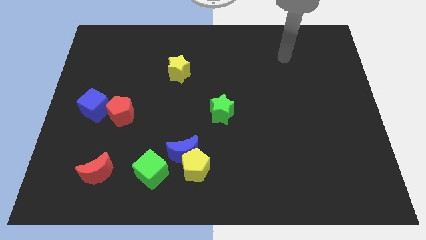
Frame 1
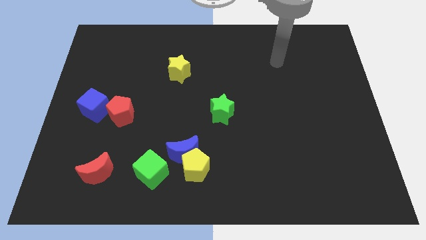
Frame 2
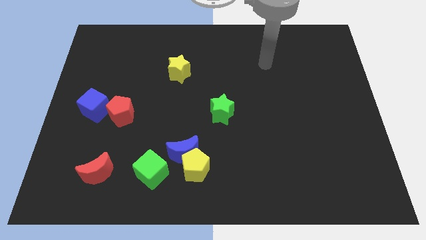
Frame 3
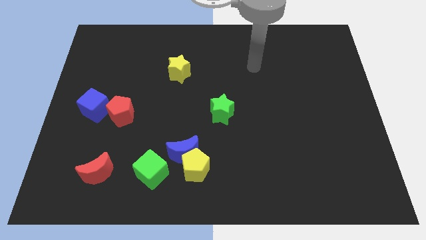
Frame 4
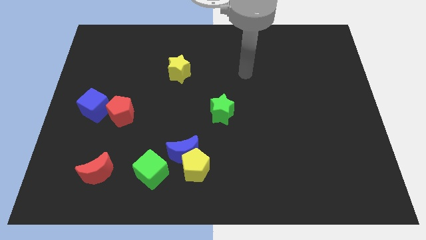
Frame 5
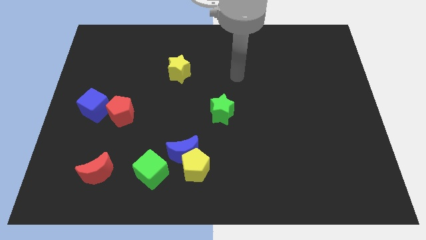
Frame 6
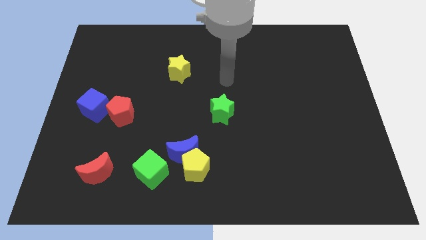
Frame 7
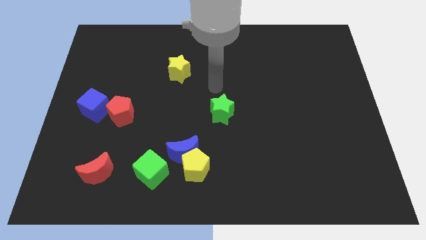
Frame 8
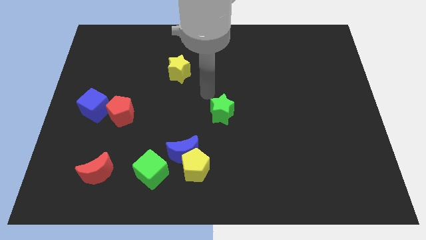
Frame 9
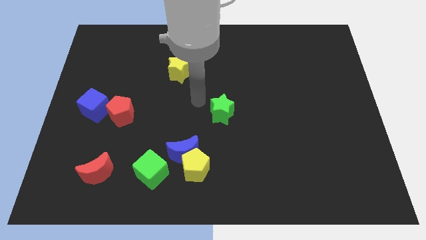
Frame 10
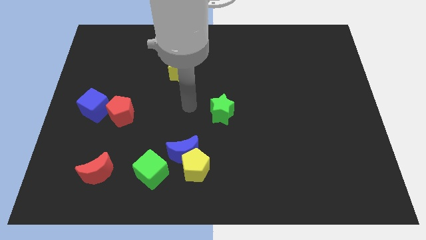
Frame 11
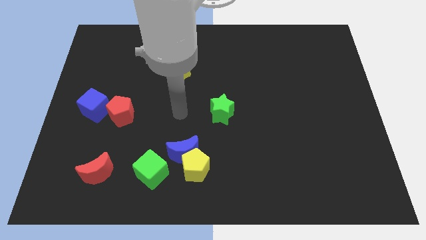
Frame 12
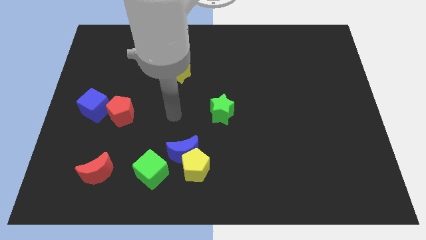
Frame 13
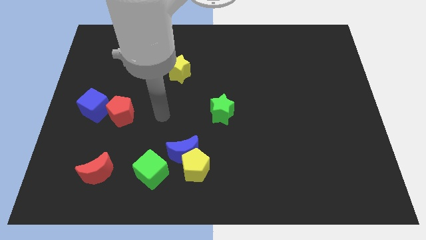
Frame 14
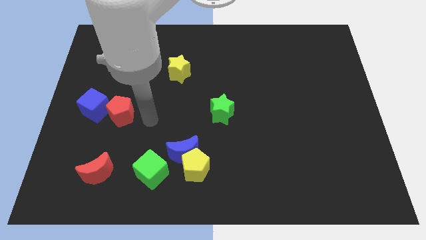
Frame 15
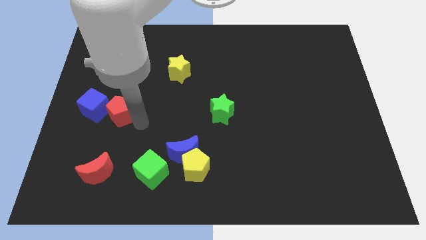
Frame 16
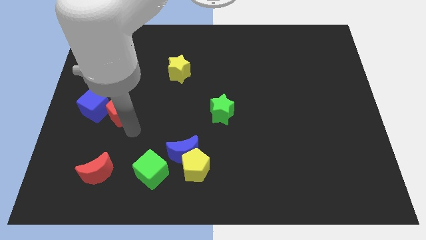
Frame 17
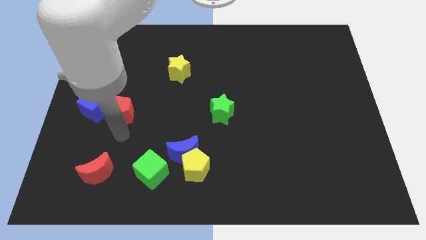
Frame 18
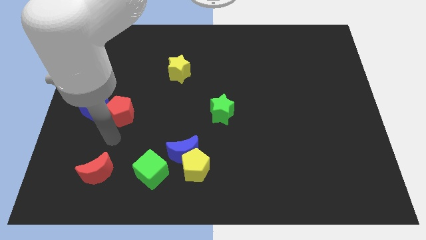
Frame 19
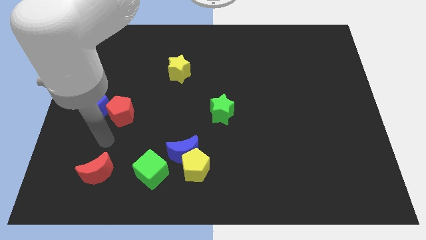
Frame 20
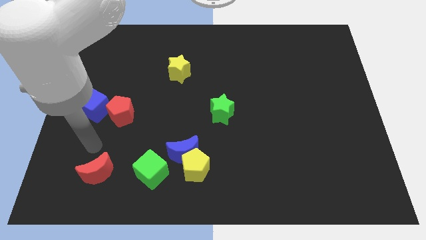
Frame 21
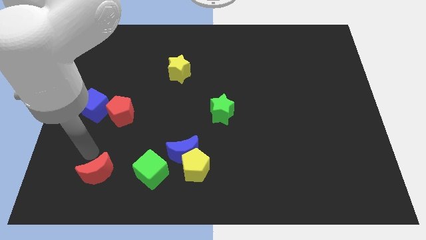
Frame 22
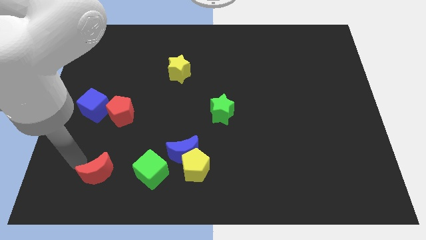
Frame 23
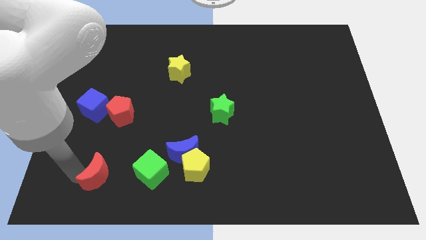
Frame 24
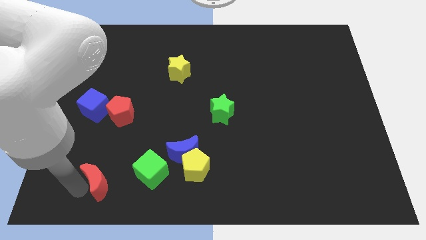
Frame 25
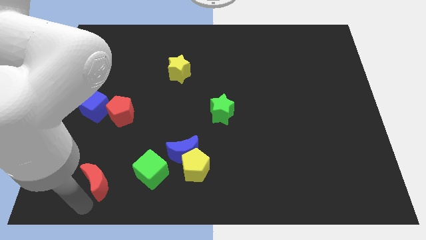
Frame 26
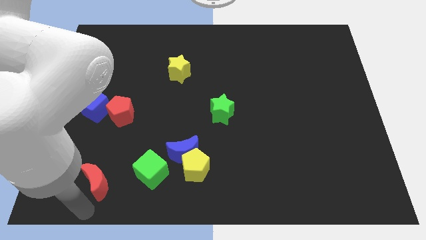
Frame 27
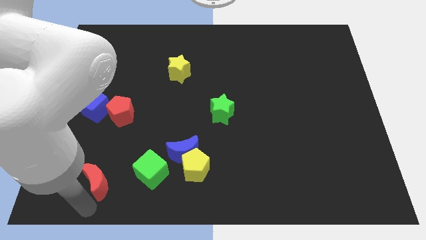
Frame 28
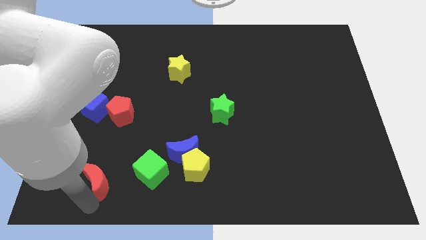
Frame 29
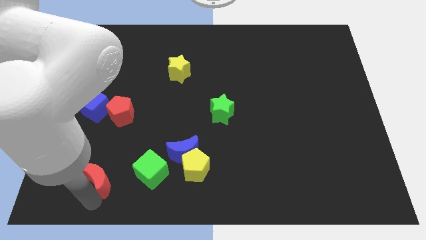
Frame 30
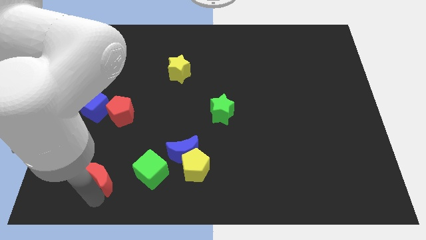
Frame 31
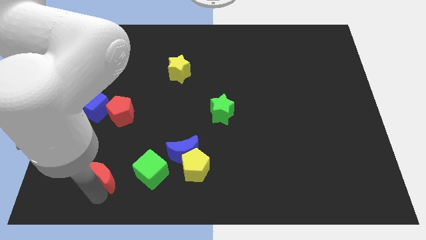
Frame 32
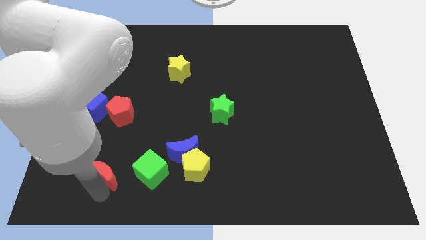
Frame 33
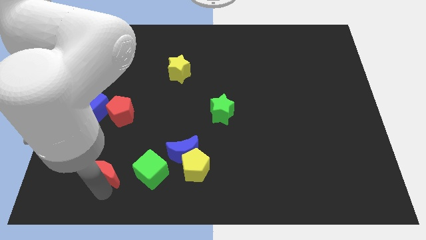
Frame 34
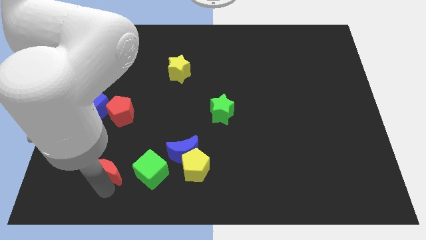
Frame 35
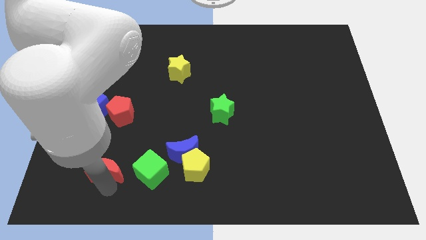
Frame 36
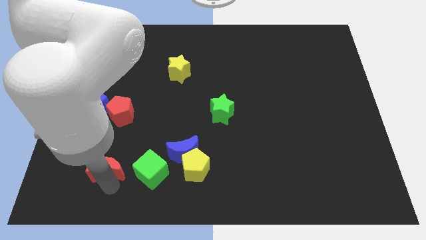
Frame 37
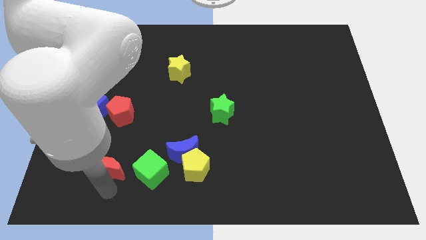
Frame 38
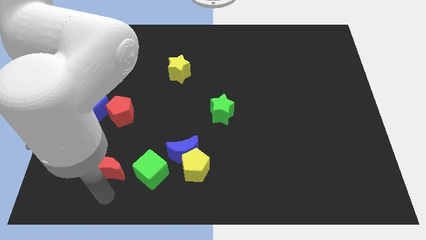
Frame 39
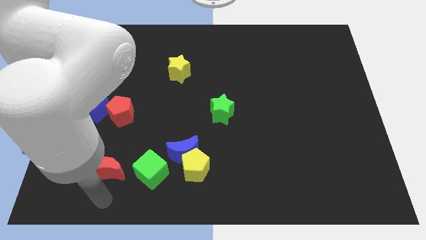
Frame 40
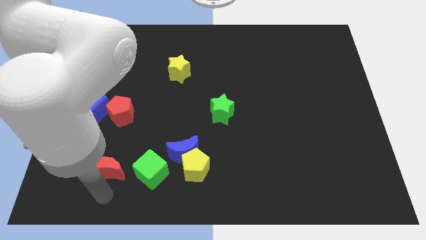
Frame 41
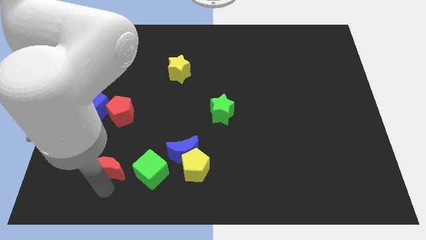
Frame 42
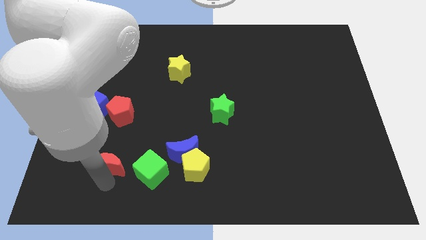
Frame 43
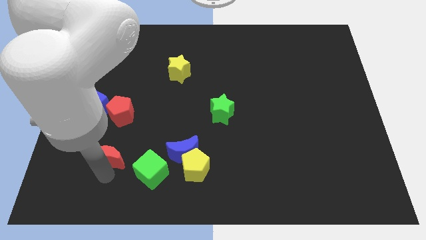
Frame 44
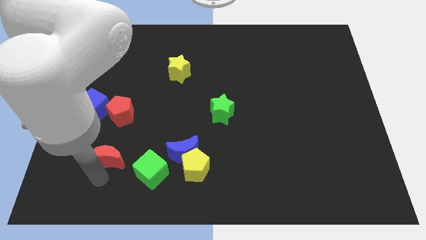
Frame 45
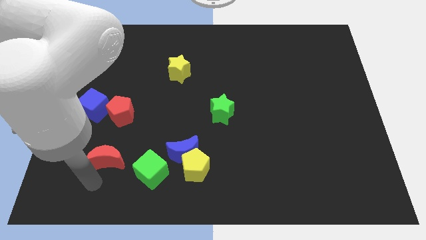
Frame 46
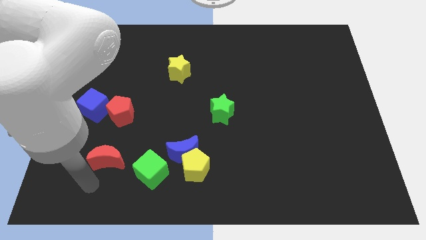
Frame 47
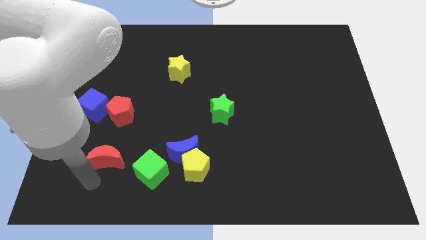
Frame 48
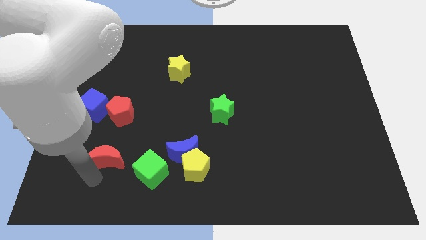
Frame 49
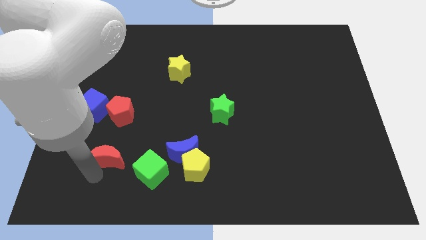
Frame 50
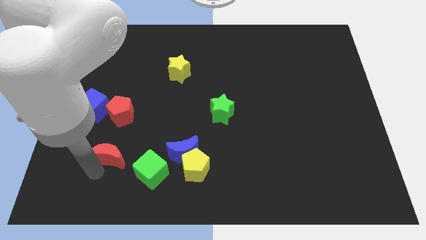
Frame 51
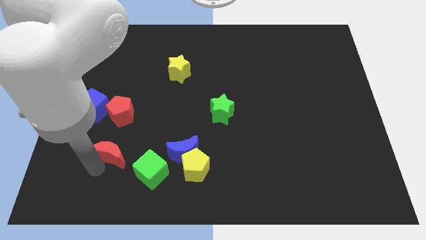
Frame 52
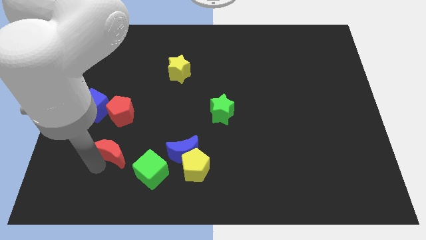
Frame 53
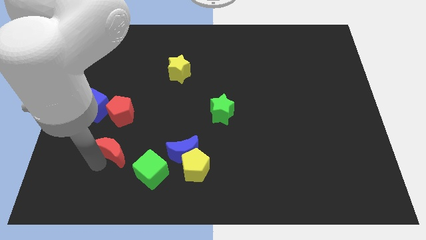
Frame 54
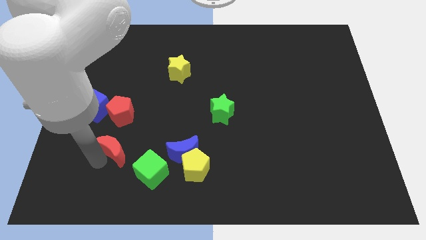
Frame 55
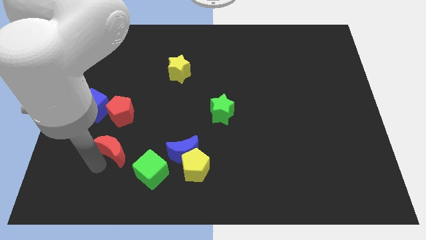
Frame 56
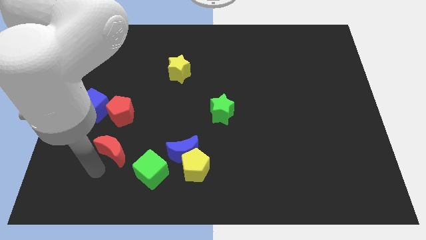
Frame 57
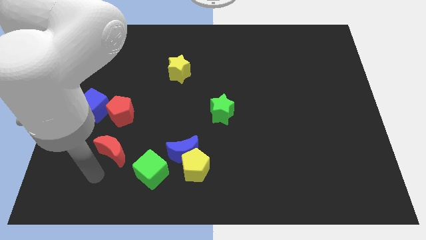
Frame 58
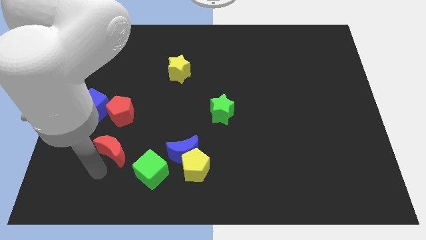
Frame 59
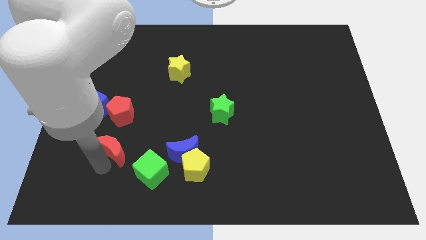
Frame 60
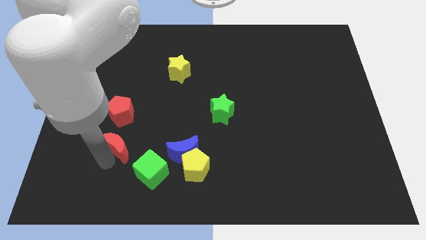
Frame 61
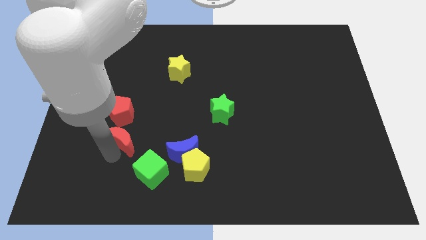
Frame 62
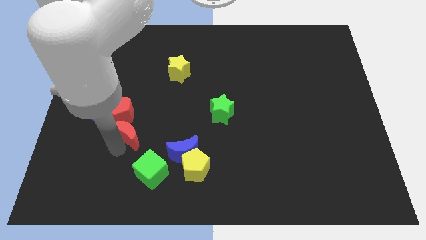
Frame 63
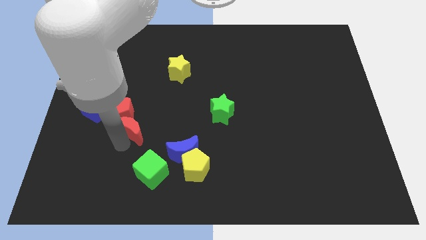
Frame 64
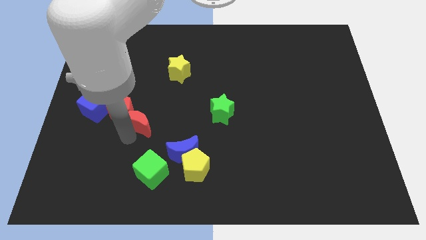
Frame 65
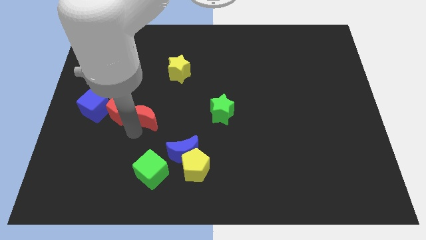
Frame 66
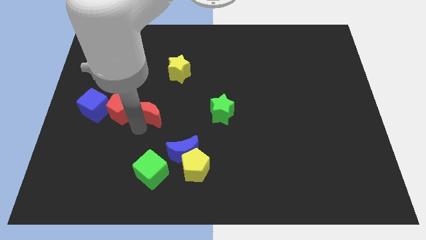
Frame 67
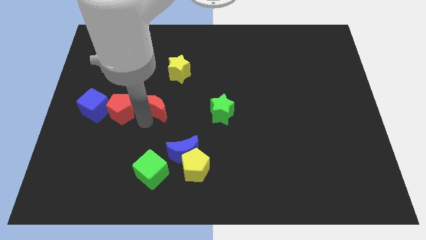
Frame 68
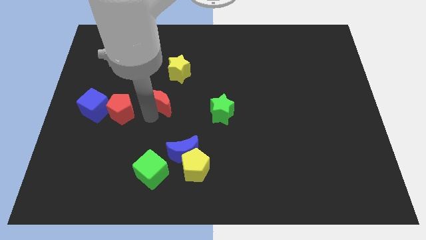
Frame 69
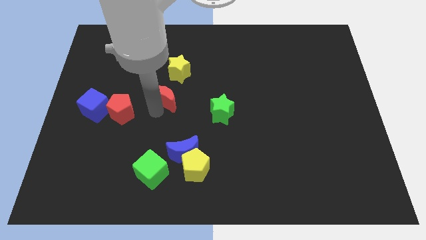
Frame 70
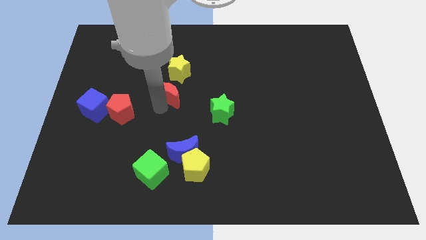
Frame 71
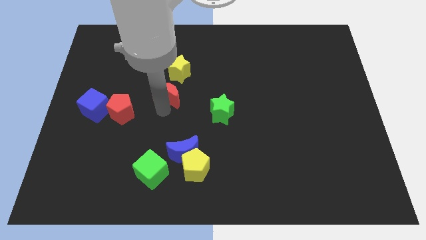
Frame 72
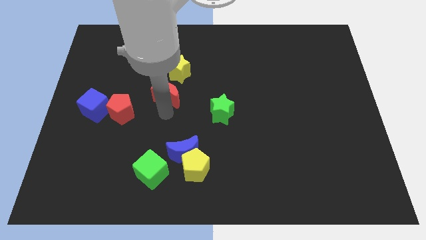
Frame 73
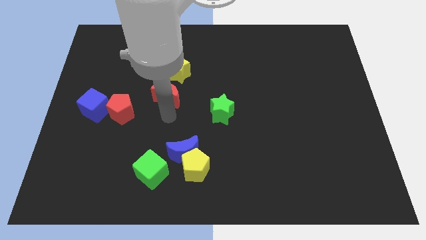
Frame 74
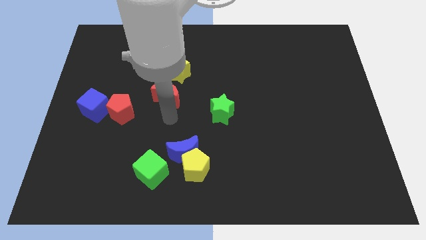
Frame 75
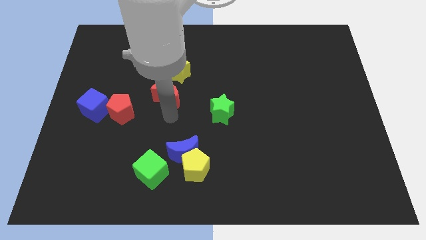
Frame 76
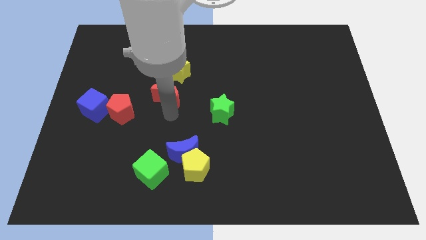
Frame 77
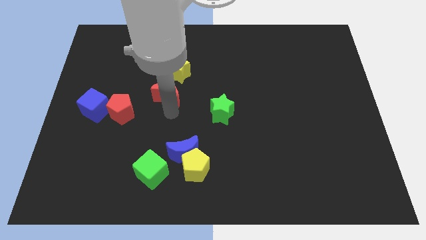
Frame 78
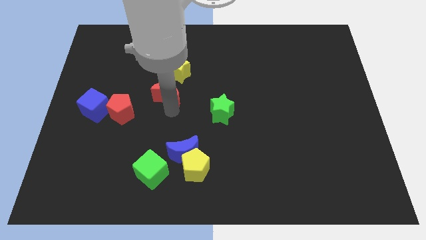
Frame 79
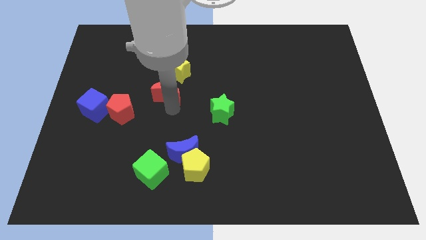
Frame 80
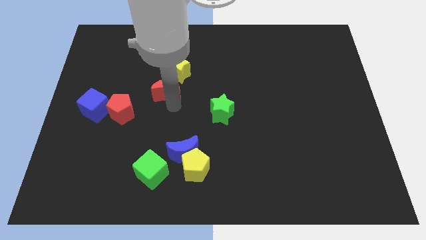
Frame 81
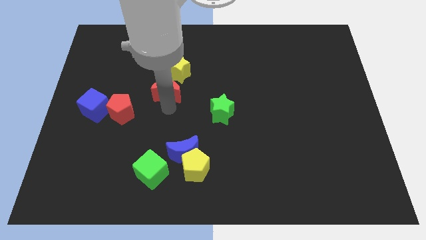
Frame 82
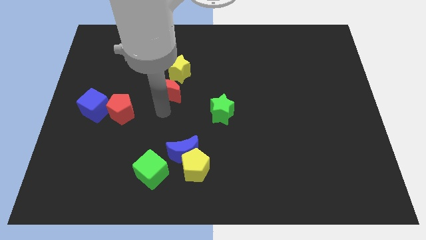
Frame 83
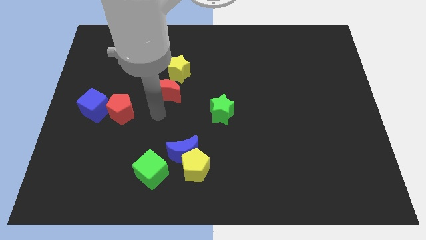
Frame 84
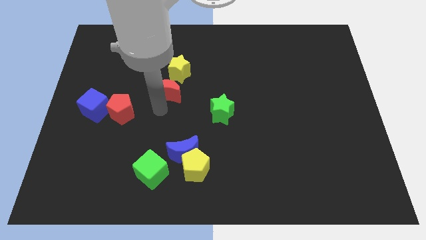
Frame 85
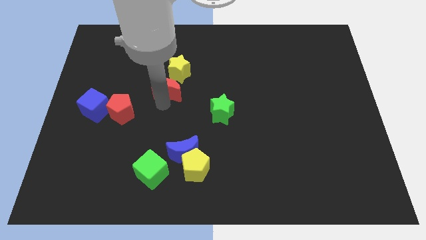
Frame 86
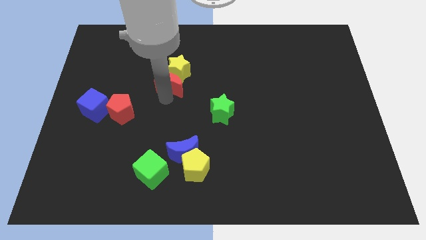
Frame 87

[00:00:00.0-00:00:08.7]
put the red moon next to the yellow star
